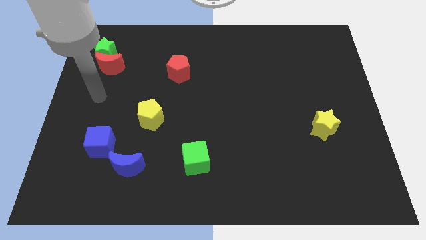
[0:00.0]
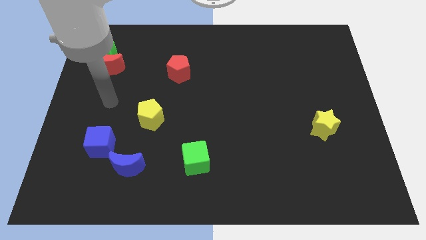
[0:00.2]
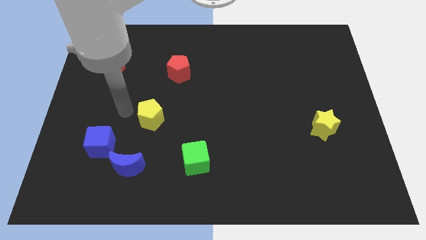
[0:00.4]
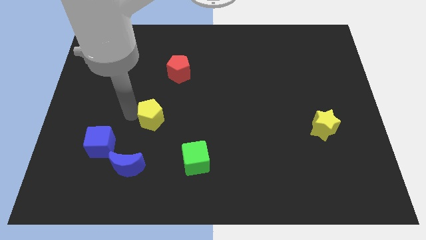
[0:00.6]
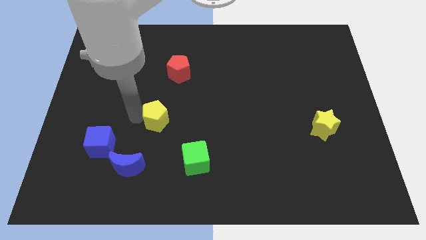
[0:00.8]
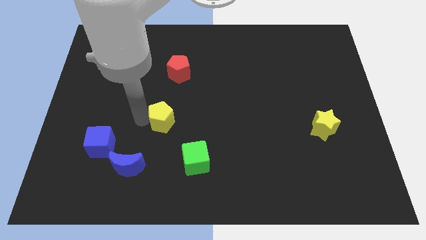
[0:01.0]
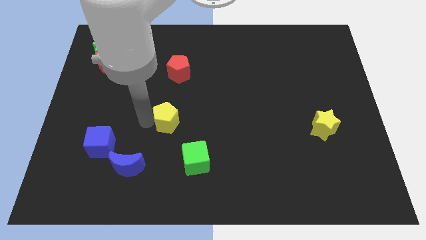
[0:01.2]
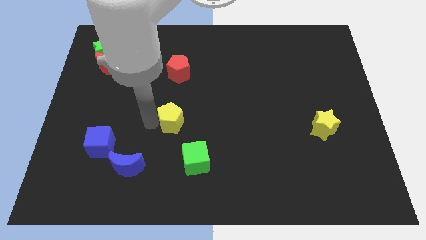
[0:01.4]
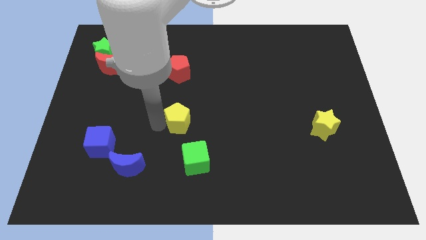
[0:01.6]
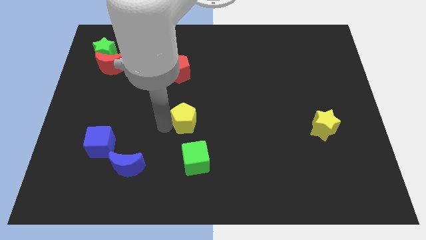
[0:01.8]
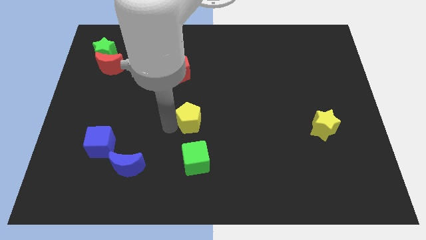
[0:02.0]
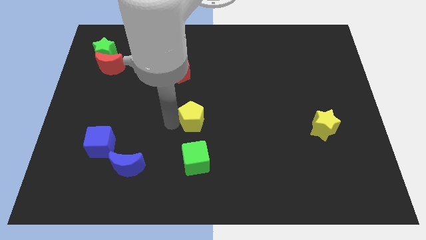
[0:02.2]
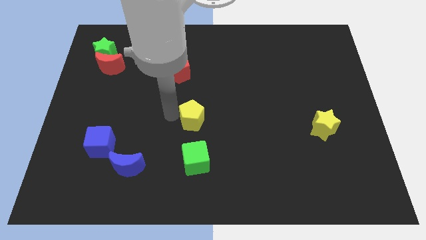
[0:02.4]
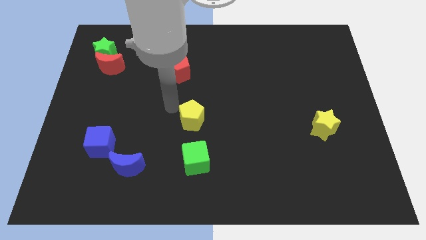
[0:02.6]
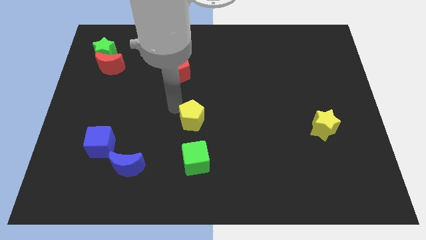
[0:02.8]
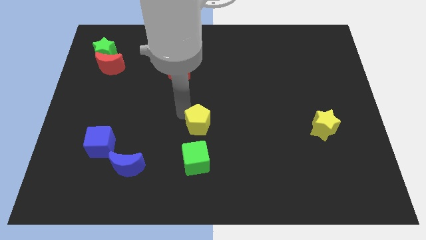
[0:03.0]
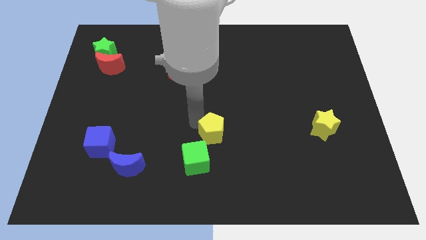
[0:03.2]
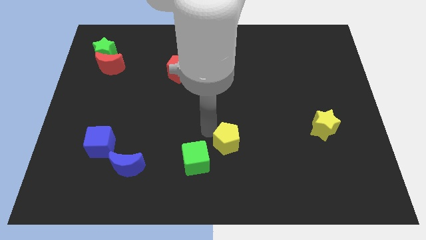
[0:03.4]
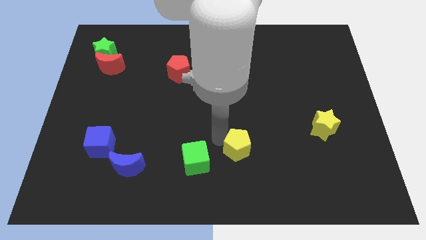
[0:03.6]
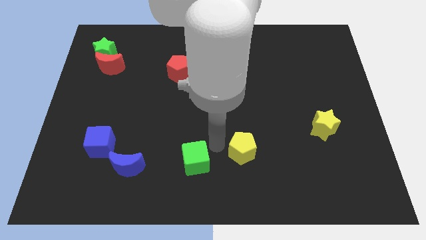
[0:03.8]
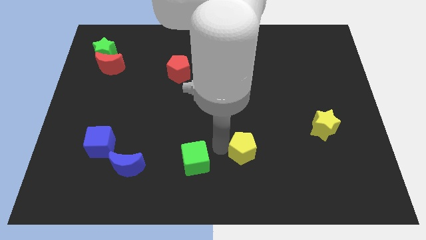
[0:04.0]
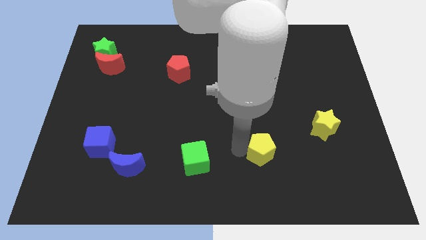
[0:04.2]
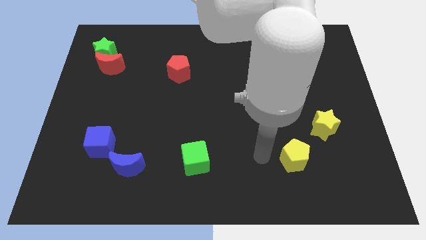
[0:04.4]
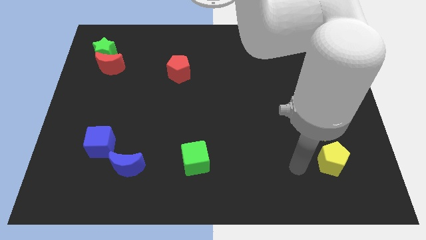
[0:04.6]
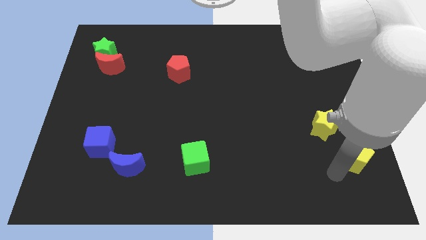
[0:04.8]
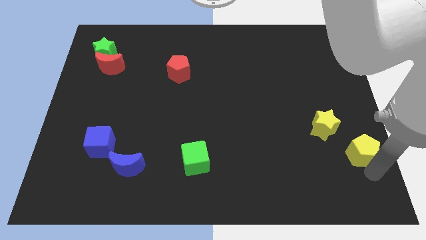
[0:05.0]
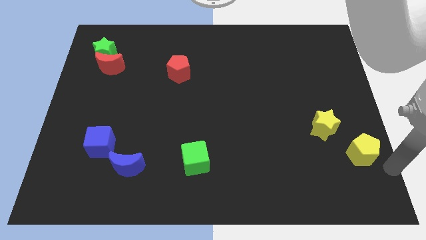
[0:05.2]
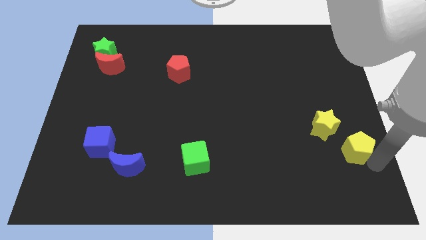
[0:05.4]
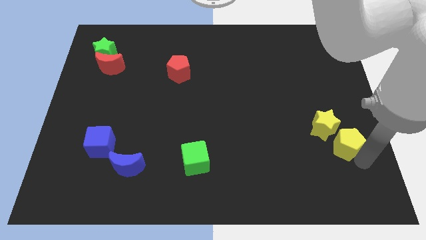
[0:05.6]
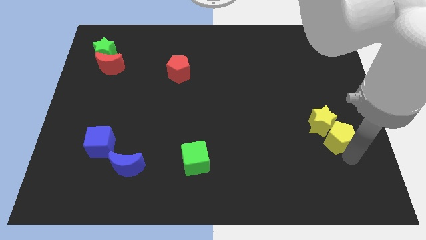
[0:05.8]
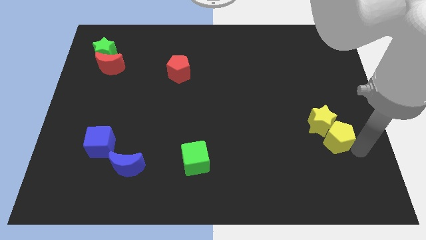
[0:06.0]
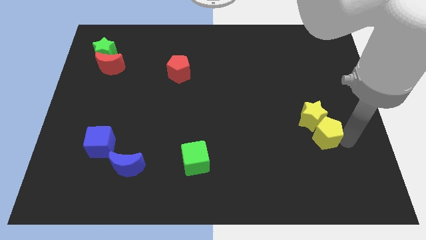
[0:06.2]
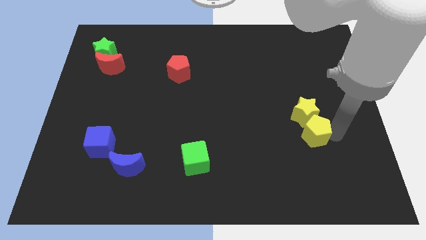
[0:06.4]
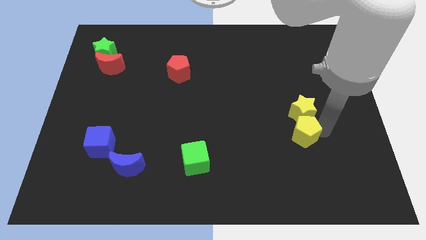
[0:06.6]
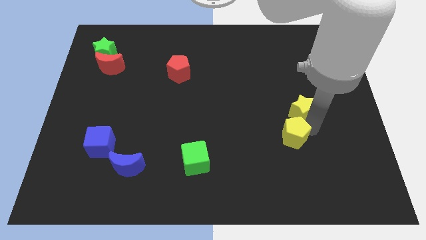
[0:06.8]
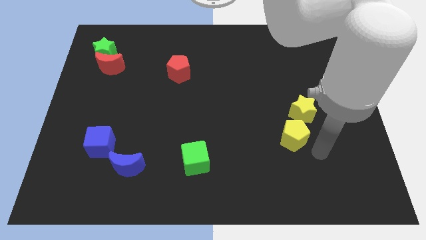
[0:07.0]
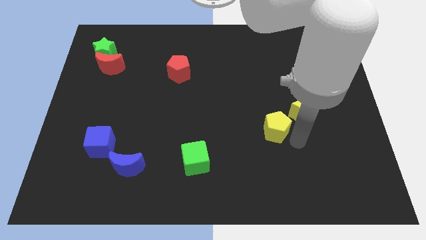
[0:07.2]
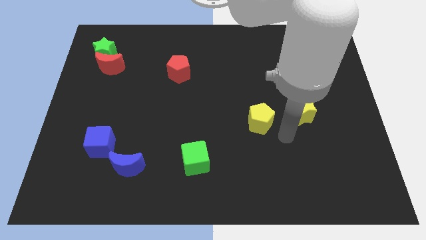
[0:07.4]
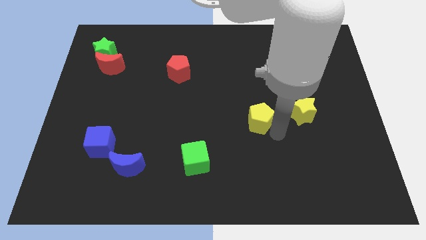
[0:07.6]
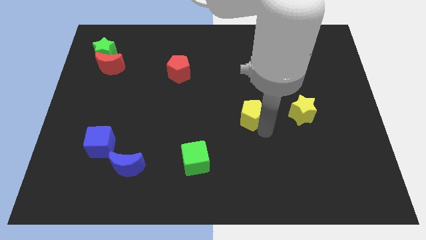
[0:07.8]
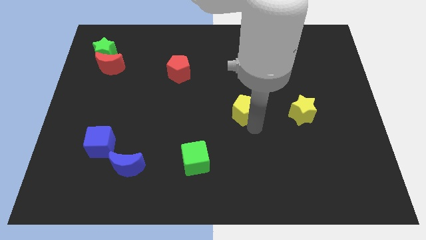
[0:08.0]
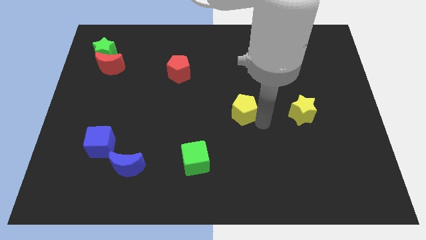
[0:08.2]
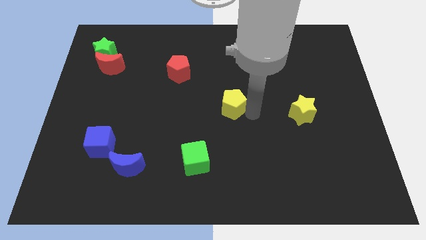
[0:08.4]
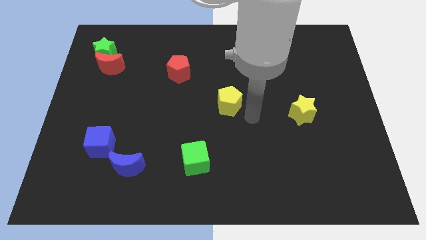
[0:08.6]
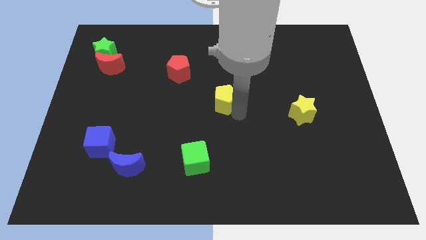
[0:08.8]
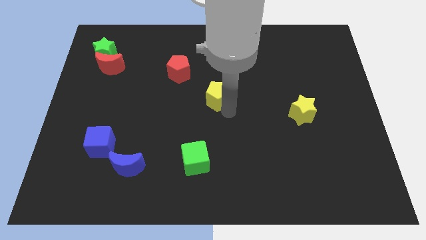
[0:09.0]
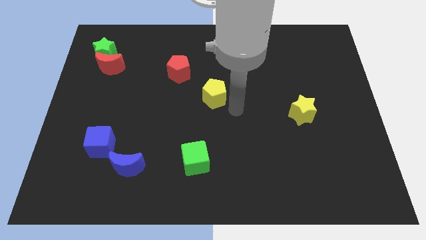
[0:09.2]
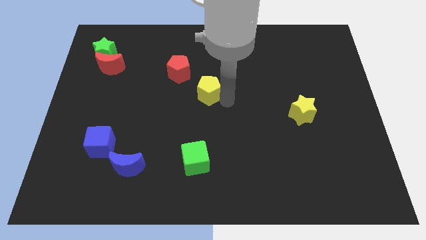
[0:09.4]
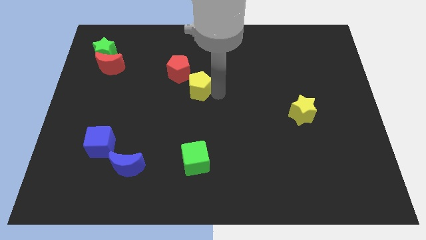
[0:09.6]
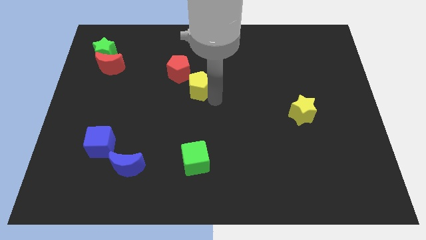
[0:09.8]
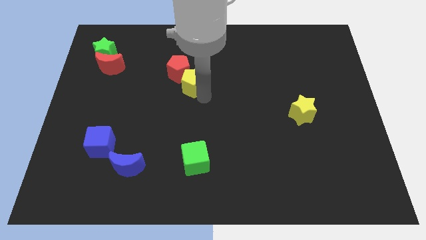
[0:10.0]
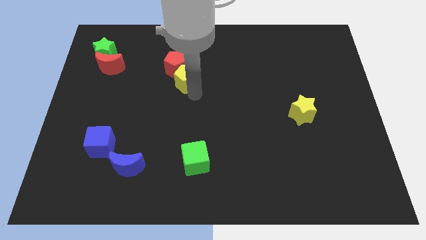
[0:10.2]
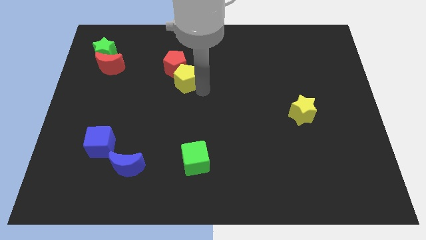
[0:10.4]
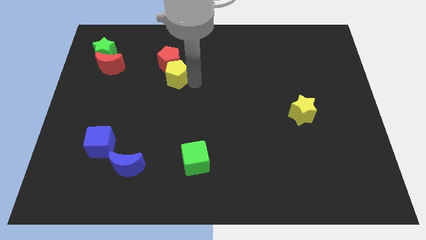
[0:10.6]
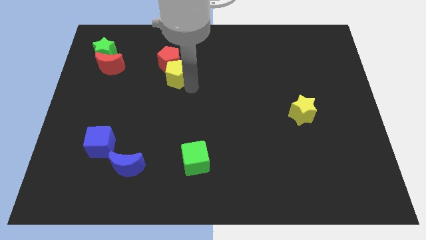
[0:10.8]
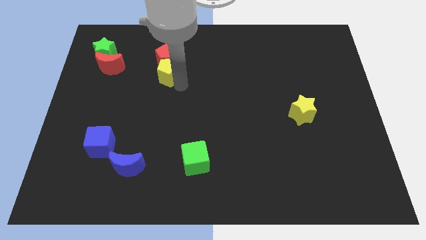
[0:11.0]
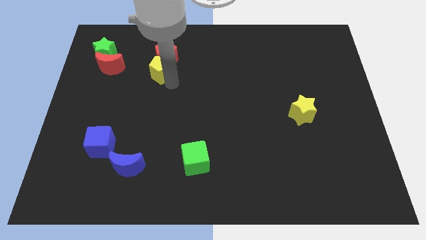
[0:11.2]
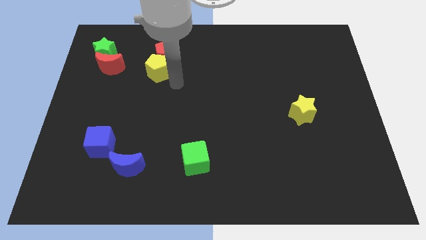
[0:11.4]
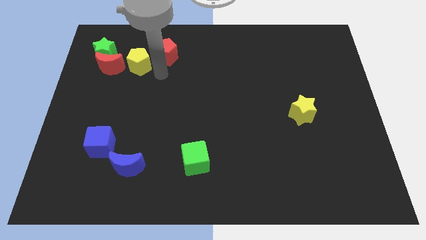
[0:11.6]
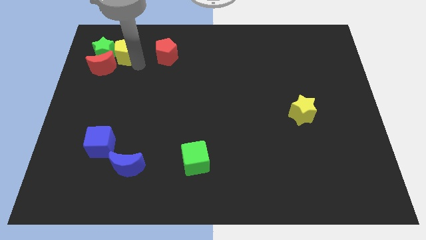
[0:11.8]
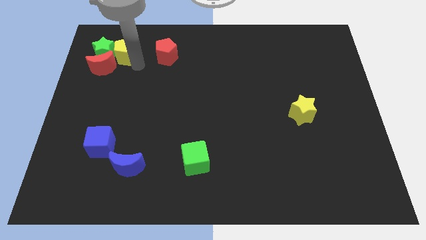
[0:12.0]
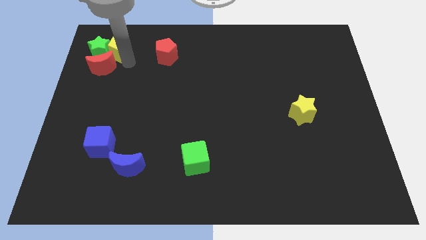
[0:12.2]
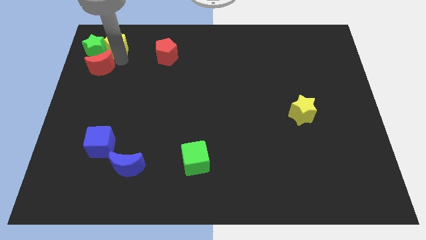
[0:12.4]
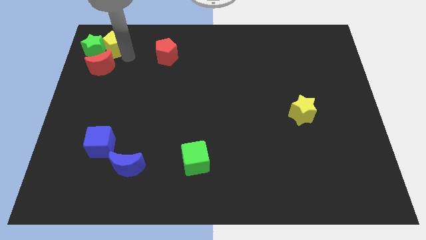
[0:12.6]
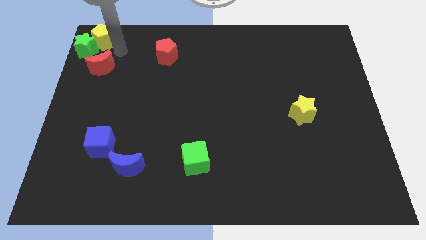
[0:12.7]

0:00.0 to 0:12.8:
slide the yellow pentagon to the top left of the board

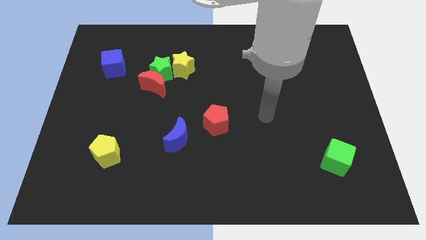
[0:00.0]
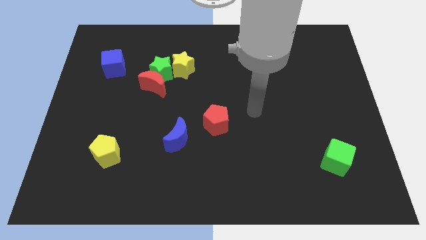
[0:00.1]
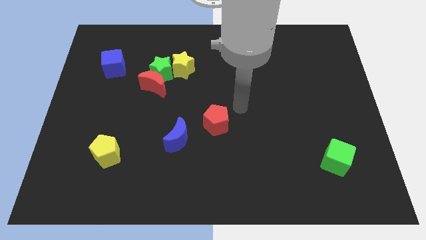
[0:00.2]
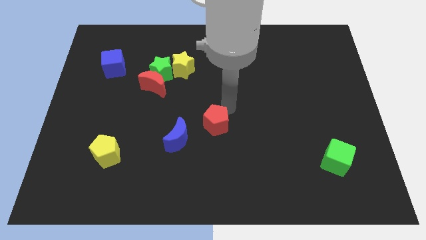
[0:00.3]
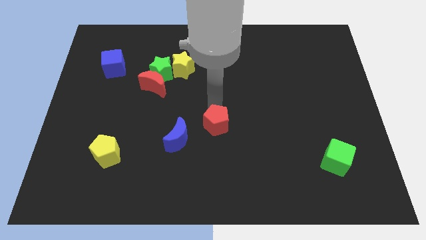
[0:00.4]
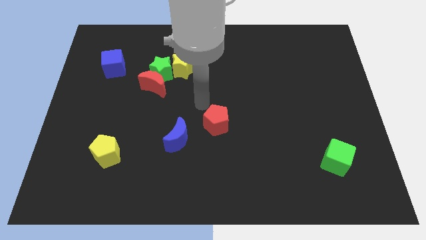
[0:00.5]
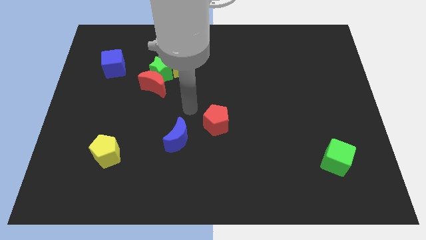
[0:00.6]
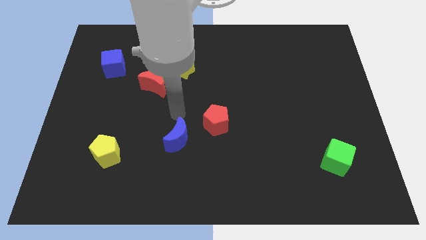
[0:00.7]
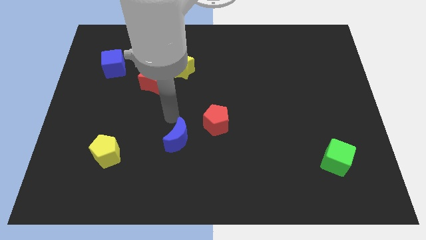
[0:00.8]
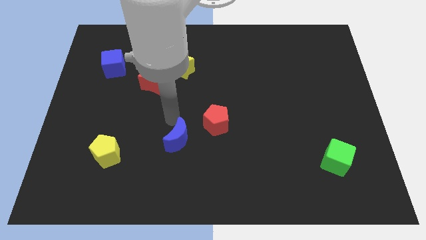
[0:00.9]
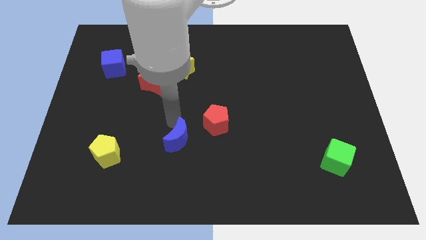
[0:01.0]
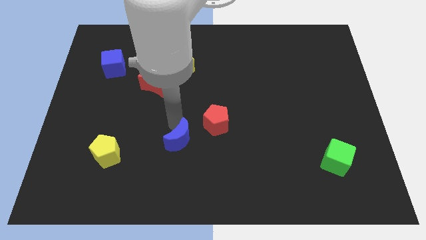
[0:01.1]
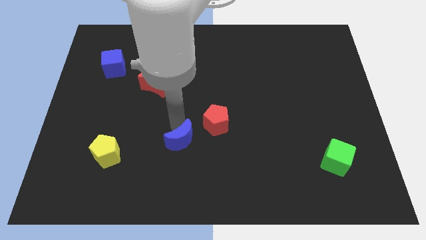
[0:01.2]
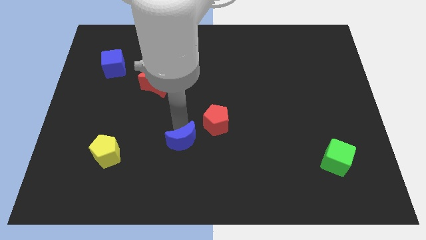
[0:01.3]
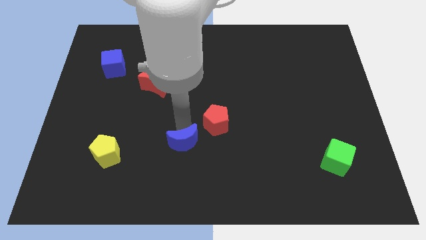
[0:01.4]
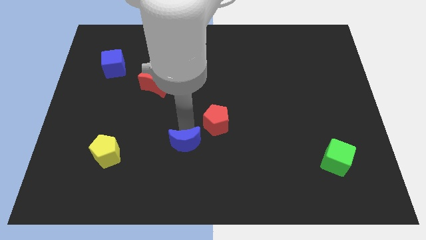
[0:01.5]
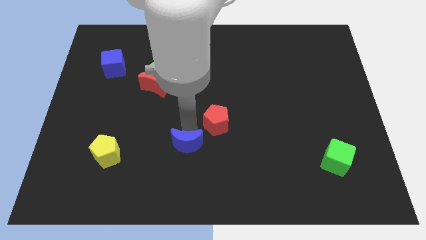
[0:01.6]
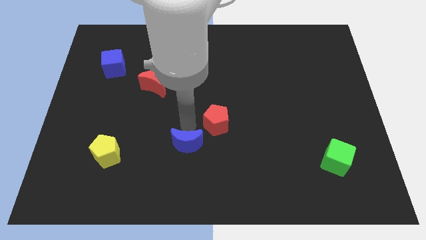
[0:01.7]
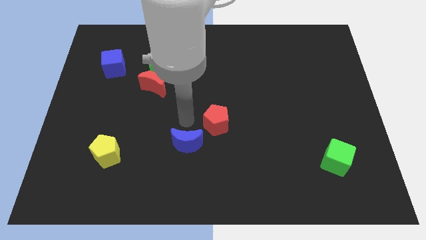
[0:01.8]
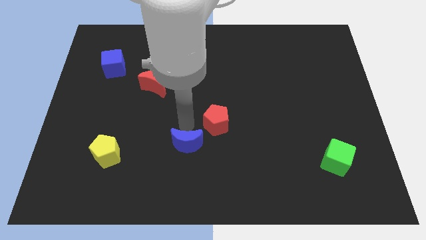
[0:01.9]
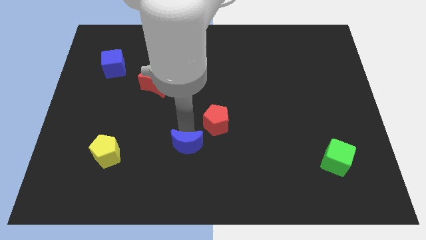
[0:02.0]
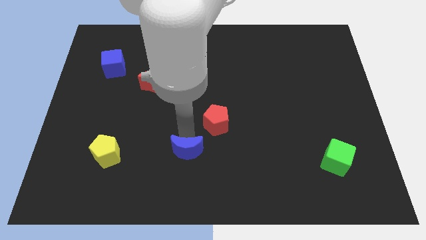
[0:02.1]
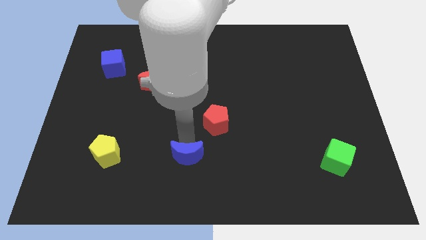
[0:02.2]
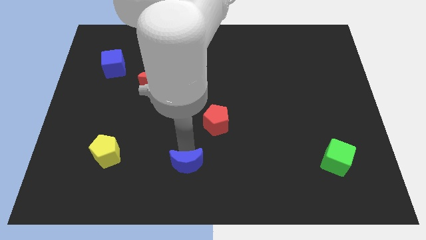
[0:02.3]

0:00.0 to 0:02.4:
slide the blue moon to the bottom
